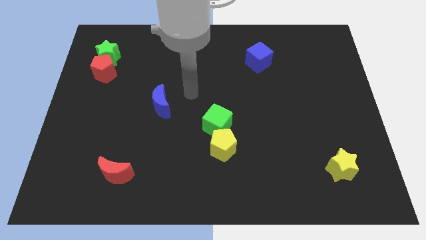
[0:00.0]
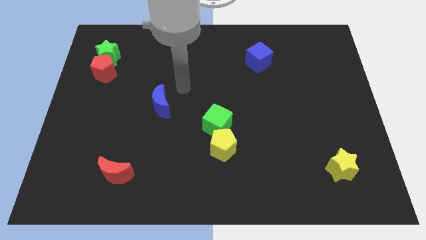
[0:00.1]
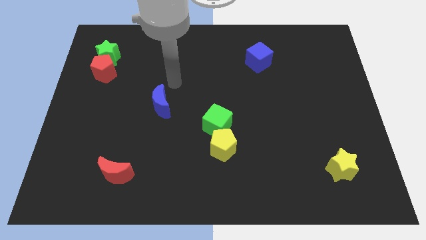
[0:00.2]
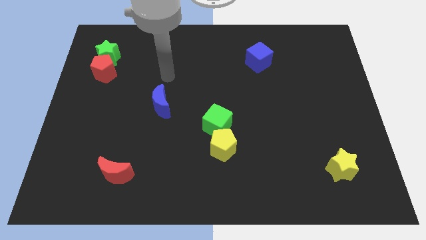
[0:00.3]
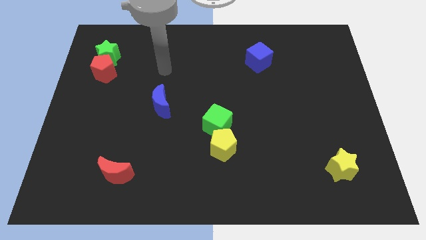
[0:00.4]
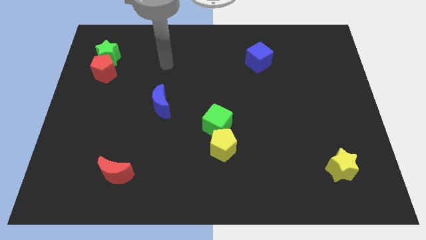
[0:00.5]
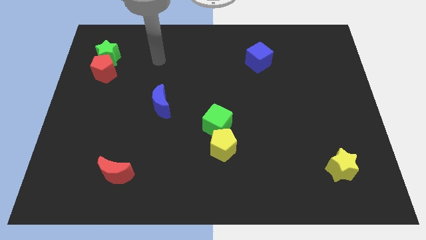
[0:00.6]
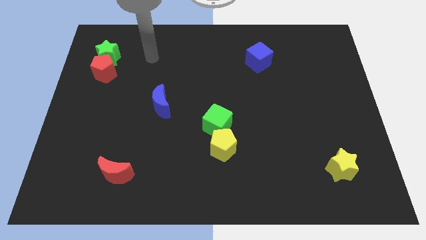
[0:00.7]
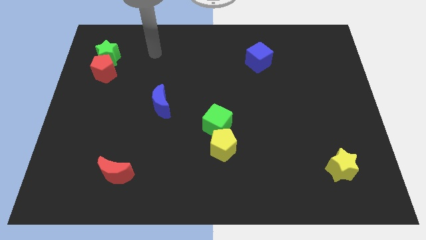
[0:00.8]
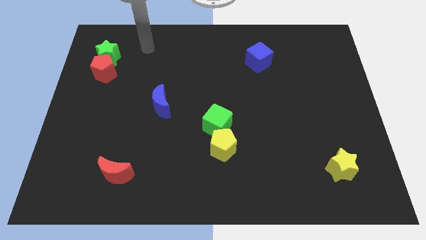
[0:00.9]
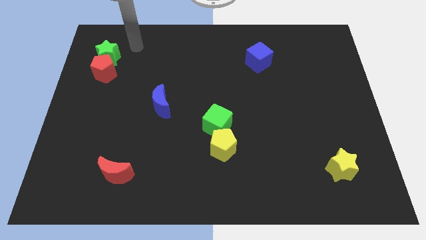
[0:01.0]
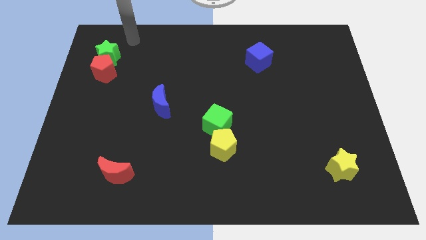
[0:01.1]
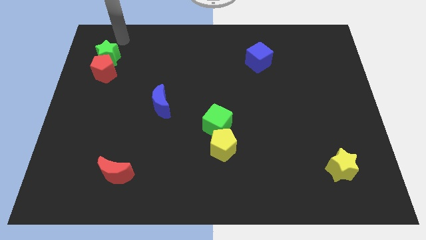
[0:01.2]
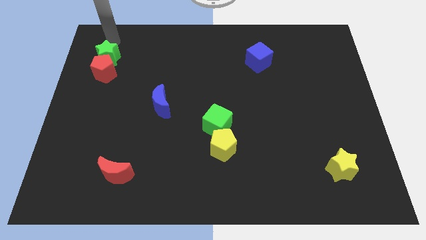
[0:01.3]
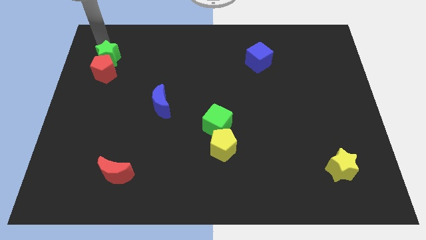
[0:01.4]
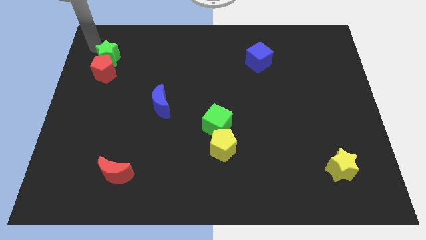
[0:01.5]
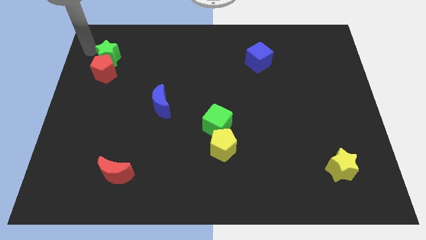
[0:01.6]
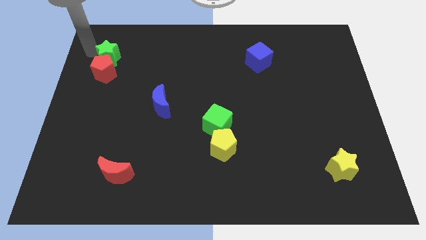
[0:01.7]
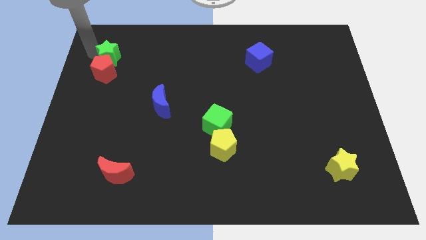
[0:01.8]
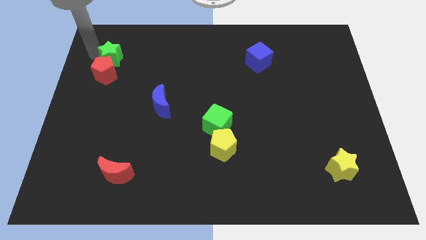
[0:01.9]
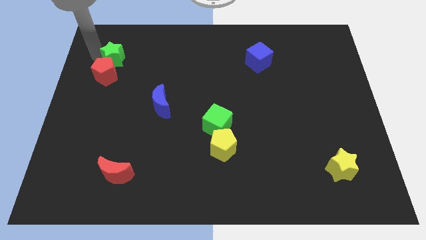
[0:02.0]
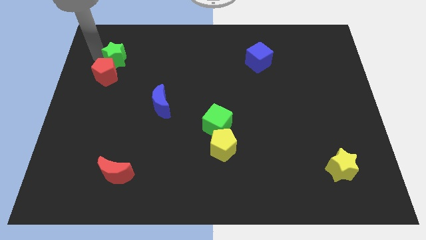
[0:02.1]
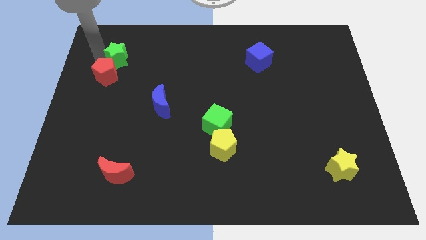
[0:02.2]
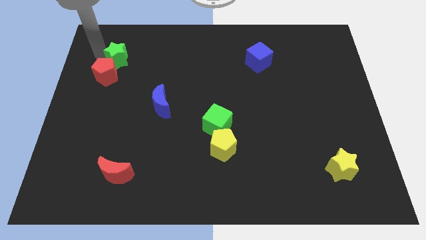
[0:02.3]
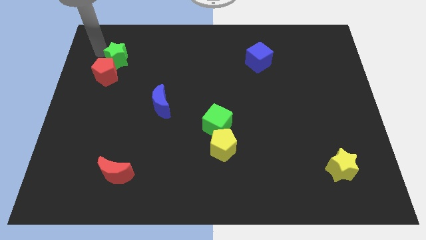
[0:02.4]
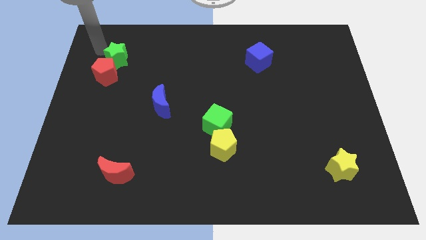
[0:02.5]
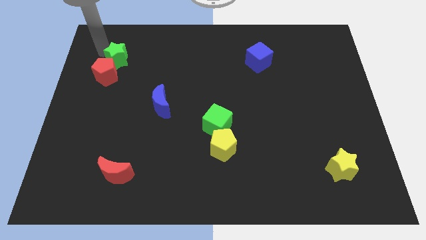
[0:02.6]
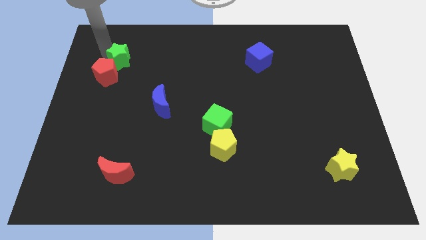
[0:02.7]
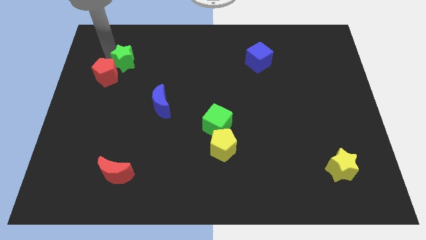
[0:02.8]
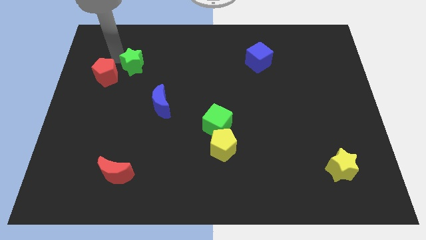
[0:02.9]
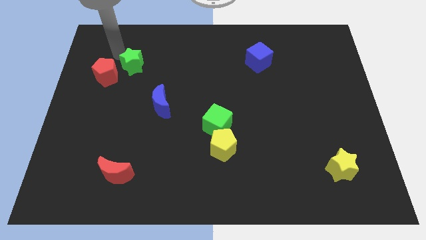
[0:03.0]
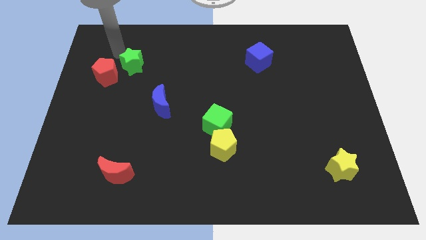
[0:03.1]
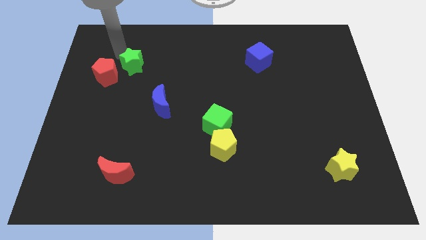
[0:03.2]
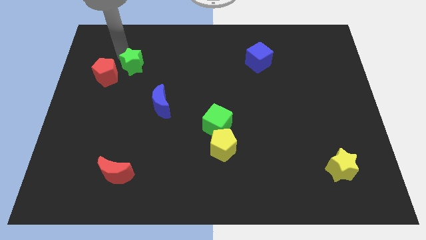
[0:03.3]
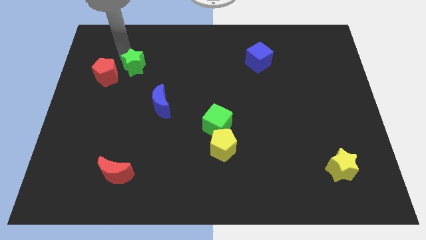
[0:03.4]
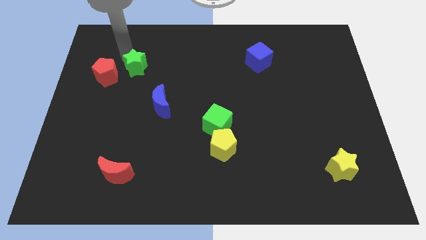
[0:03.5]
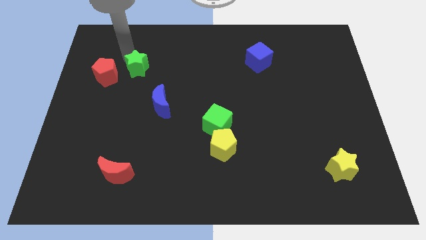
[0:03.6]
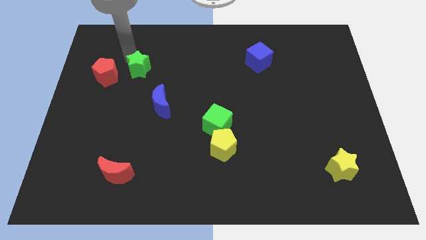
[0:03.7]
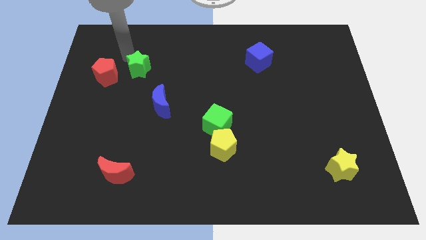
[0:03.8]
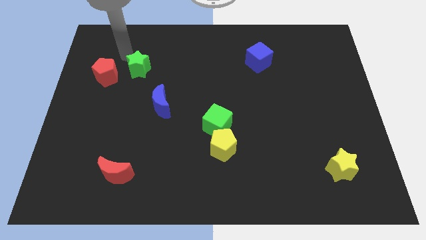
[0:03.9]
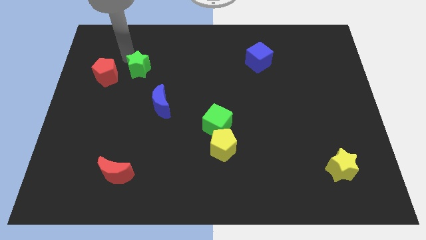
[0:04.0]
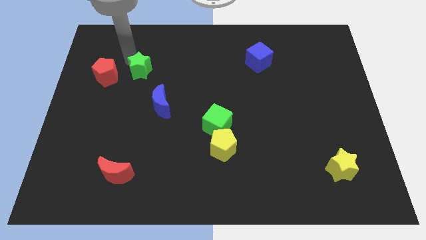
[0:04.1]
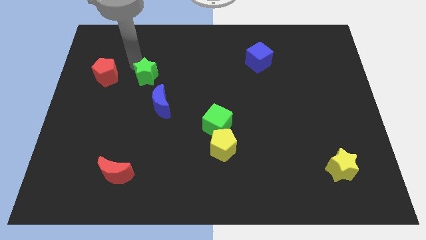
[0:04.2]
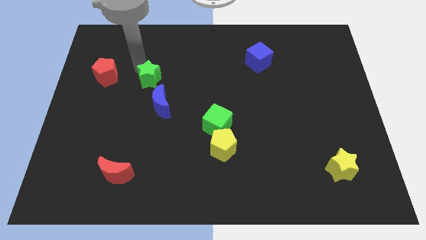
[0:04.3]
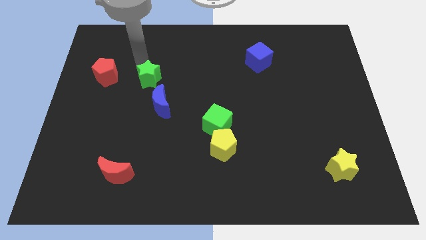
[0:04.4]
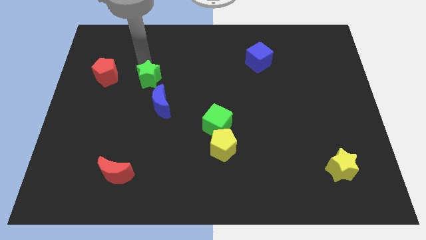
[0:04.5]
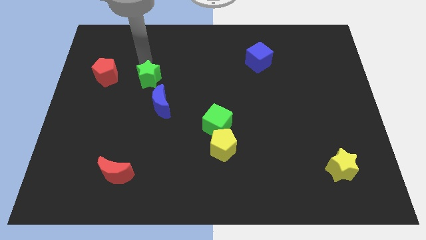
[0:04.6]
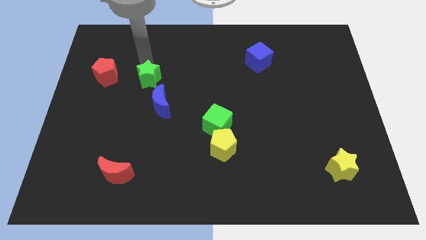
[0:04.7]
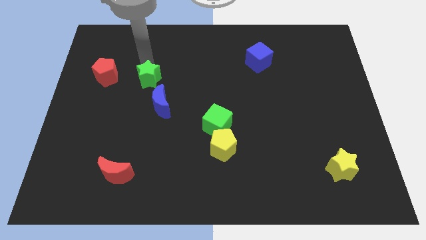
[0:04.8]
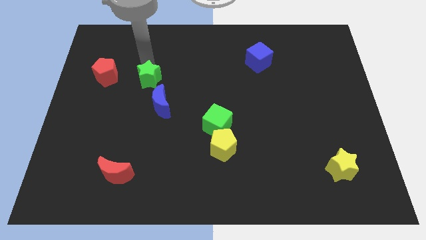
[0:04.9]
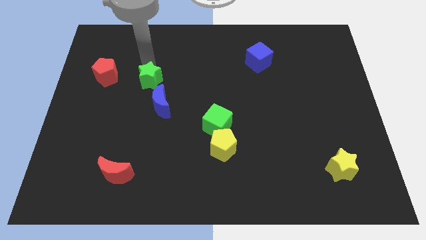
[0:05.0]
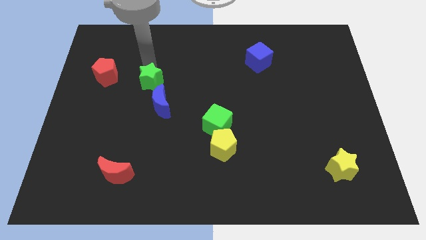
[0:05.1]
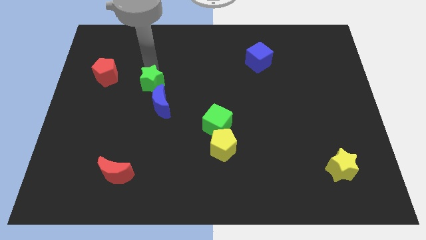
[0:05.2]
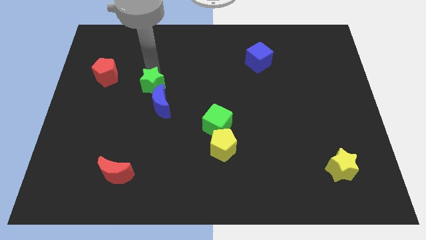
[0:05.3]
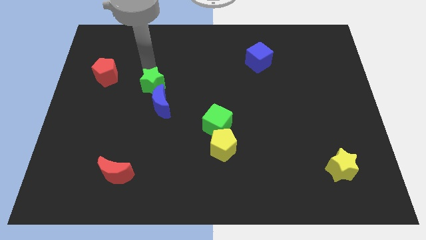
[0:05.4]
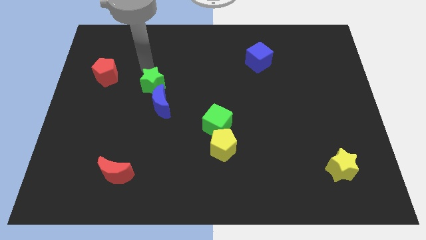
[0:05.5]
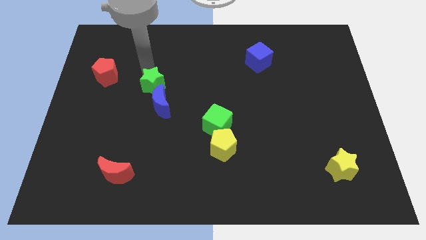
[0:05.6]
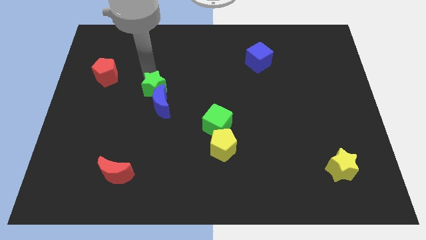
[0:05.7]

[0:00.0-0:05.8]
move the green star close to the blue moon
